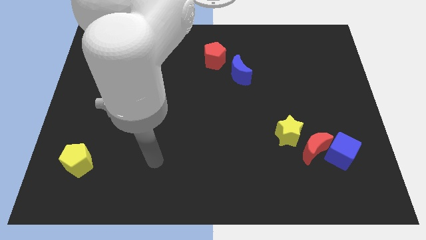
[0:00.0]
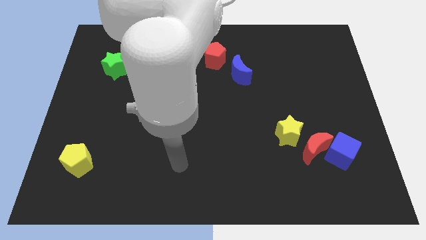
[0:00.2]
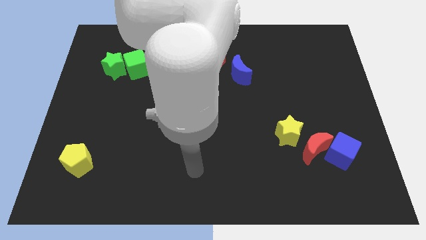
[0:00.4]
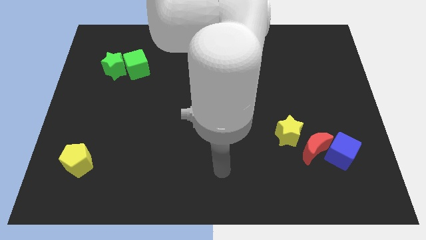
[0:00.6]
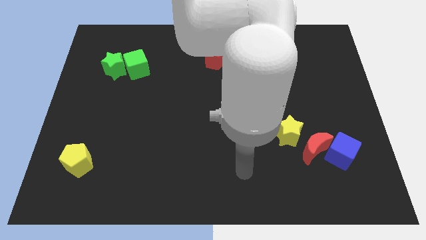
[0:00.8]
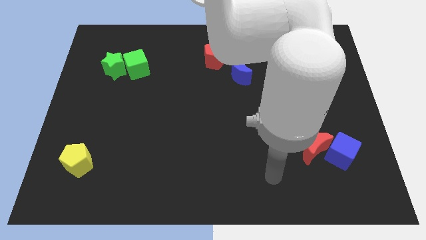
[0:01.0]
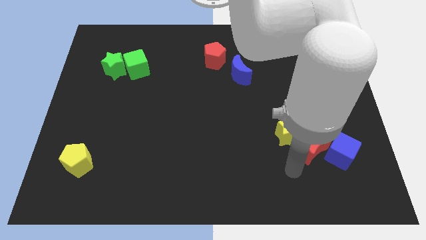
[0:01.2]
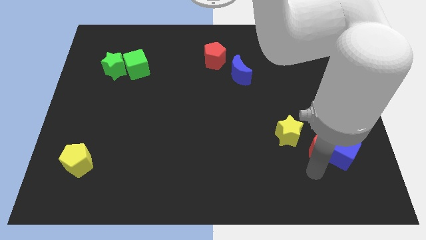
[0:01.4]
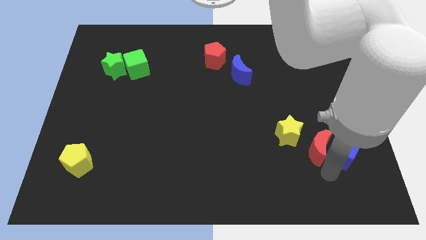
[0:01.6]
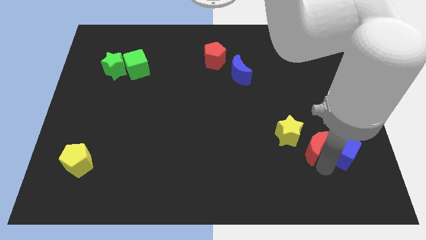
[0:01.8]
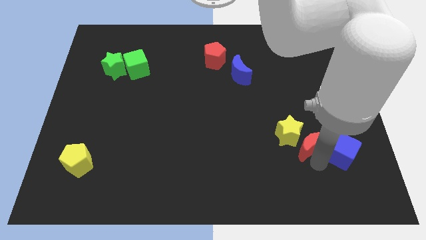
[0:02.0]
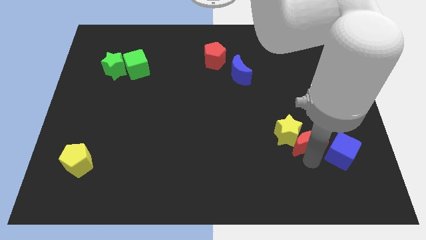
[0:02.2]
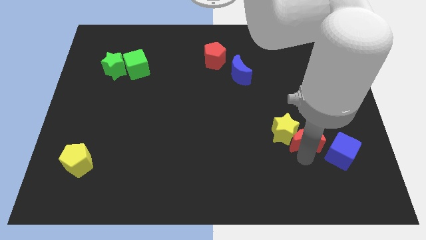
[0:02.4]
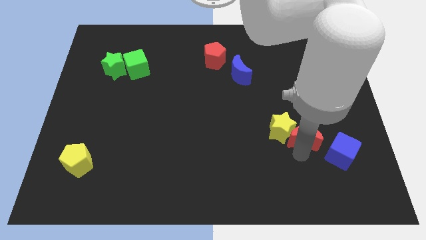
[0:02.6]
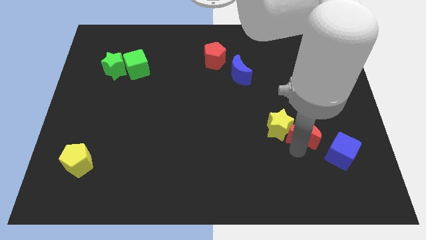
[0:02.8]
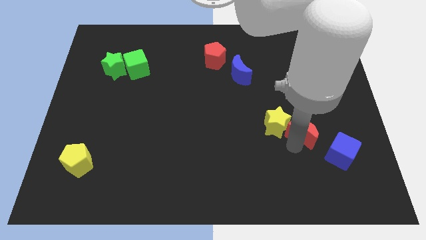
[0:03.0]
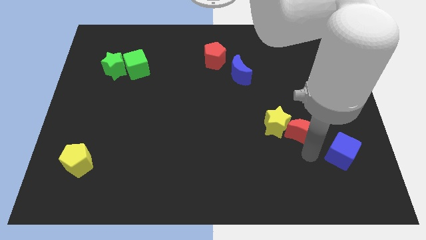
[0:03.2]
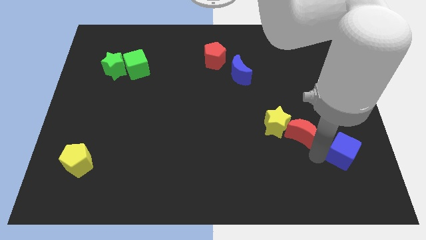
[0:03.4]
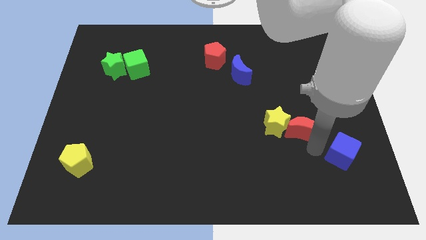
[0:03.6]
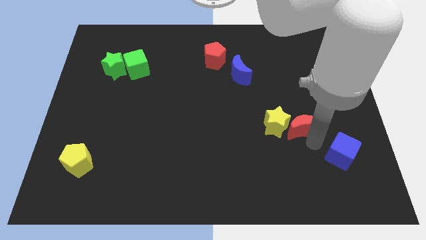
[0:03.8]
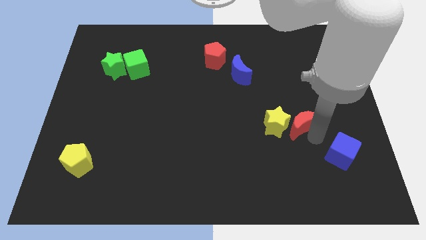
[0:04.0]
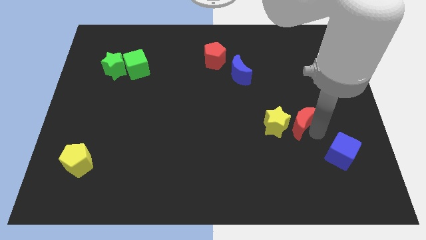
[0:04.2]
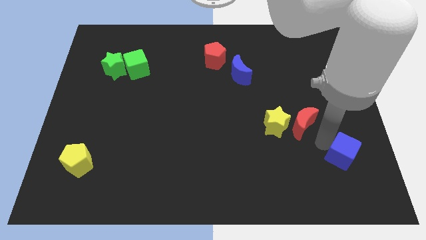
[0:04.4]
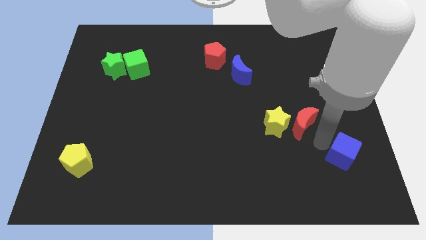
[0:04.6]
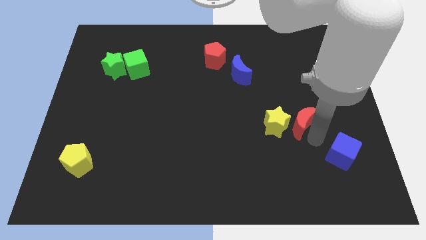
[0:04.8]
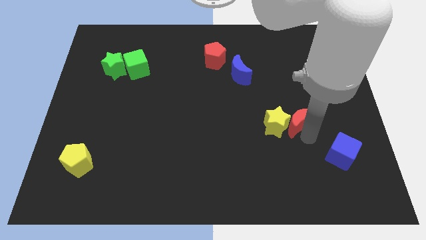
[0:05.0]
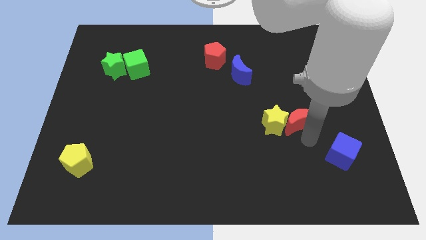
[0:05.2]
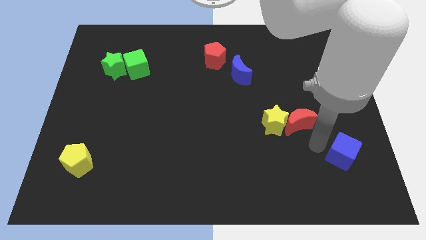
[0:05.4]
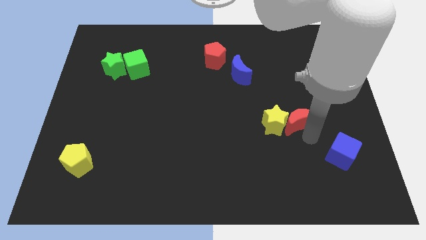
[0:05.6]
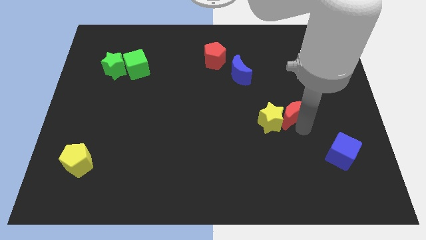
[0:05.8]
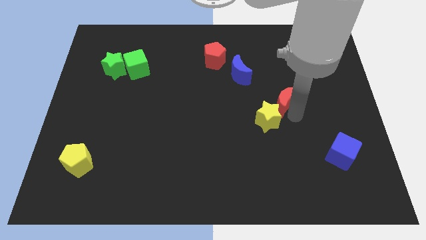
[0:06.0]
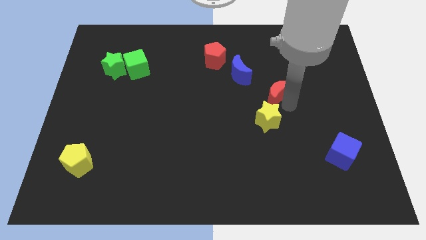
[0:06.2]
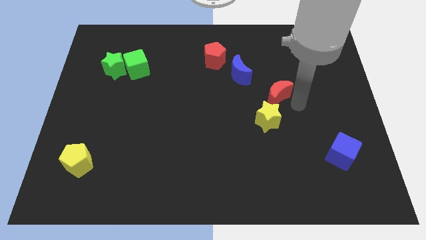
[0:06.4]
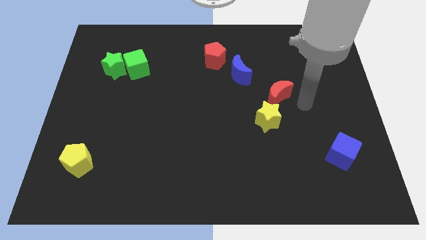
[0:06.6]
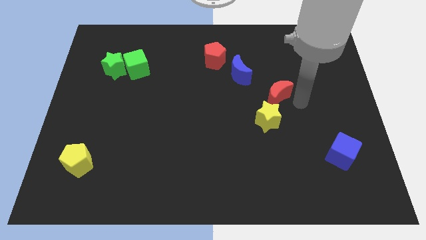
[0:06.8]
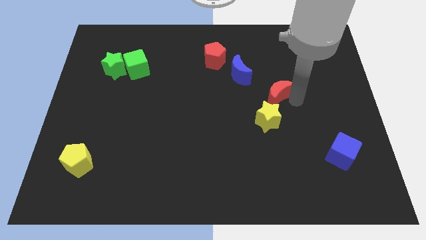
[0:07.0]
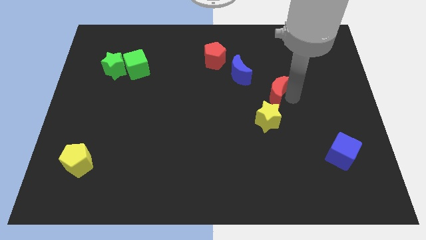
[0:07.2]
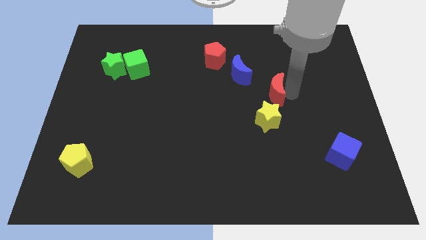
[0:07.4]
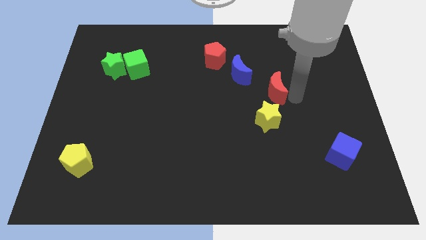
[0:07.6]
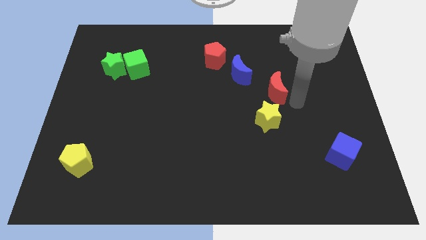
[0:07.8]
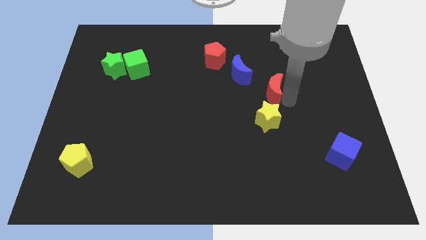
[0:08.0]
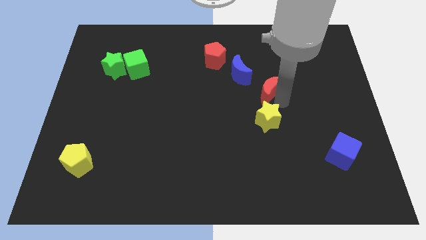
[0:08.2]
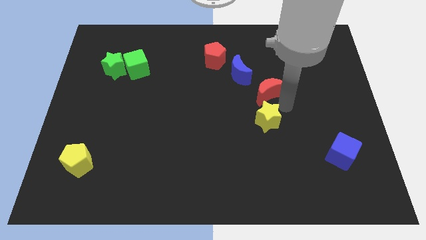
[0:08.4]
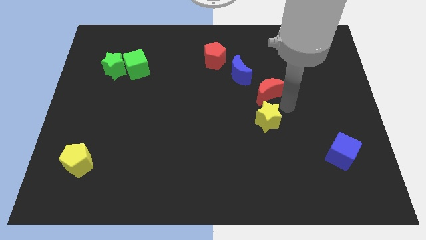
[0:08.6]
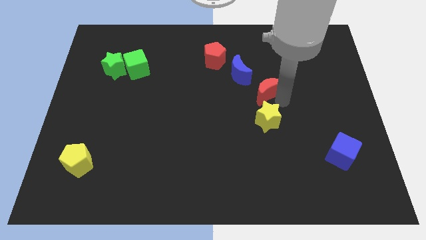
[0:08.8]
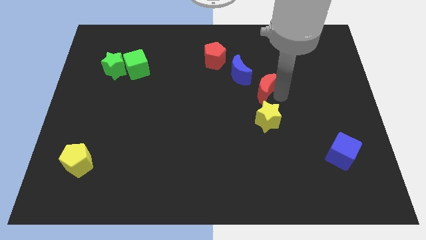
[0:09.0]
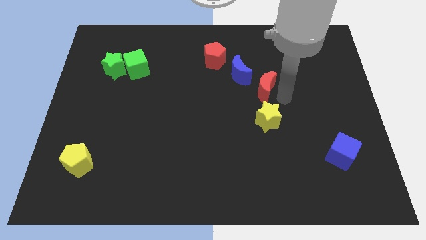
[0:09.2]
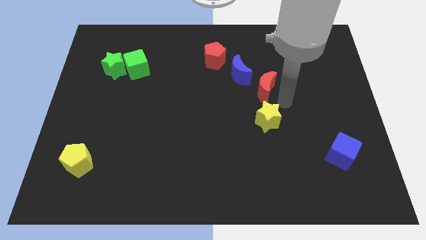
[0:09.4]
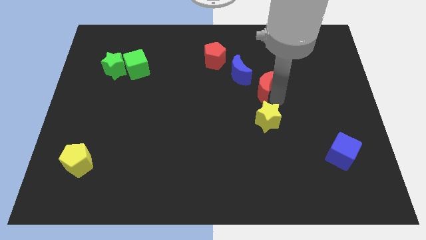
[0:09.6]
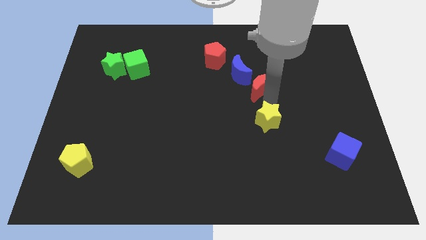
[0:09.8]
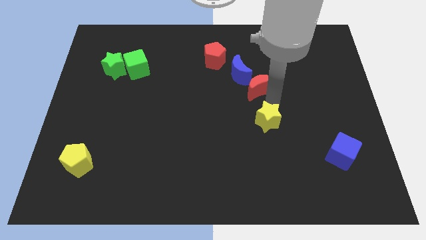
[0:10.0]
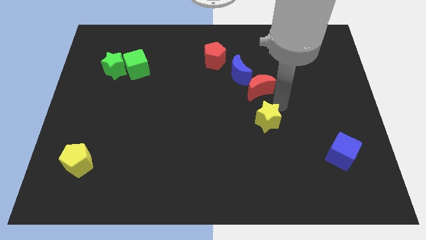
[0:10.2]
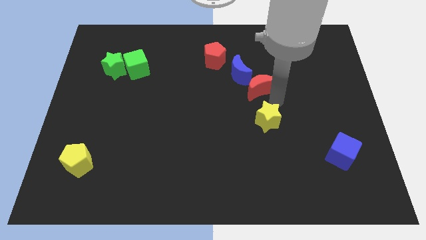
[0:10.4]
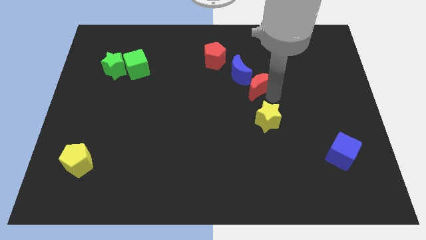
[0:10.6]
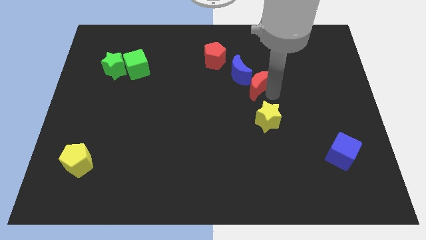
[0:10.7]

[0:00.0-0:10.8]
slide the red moon next to the blue moon

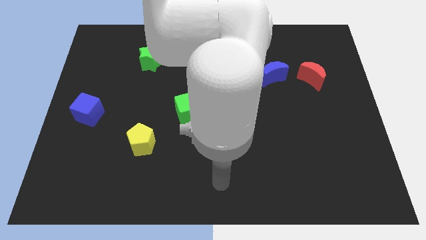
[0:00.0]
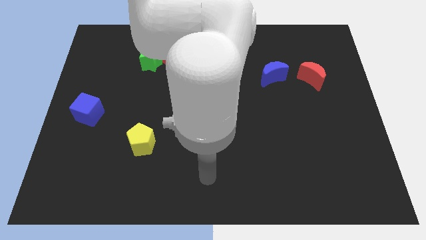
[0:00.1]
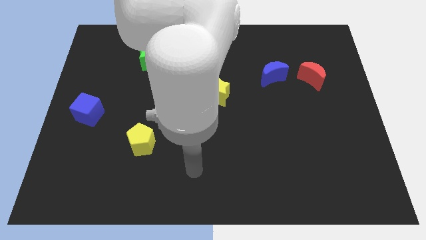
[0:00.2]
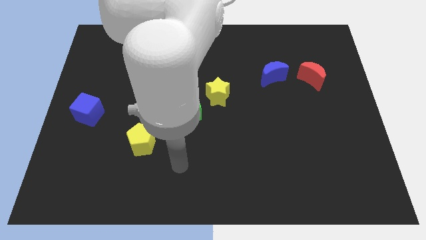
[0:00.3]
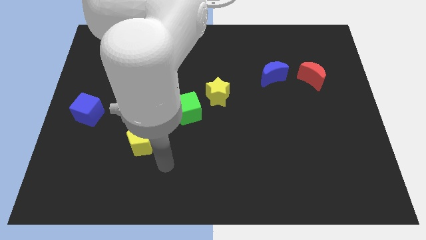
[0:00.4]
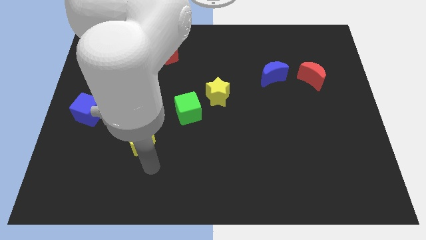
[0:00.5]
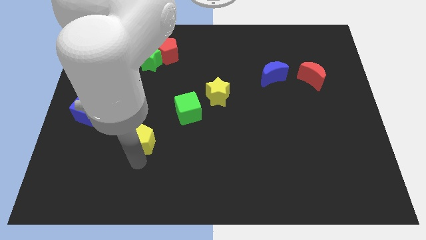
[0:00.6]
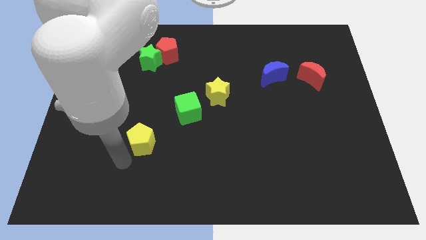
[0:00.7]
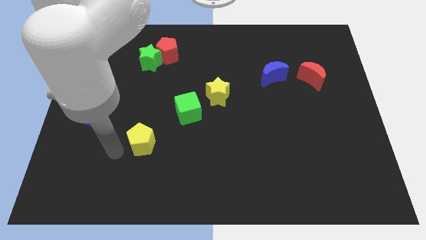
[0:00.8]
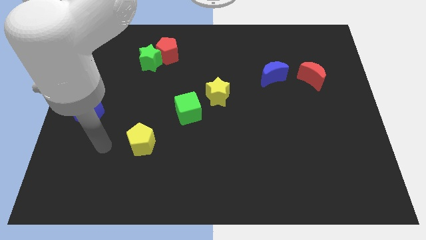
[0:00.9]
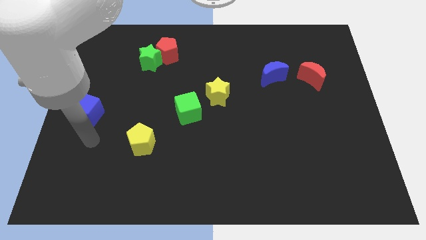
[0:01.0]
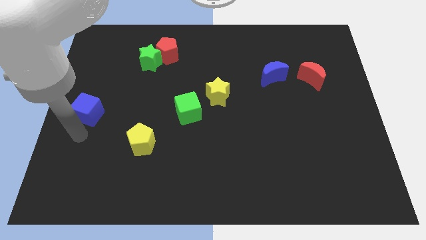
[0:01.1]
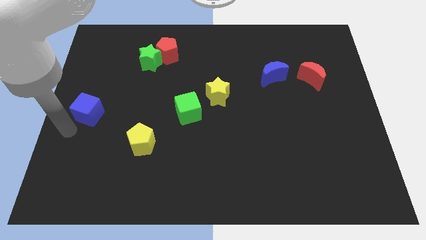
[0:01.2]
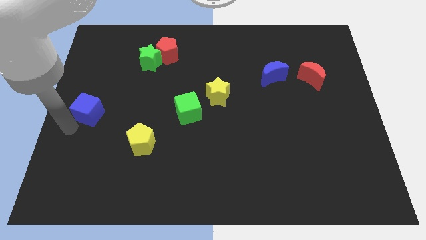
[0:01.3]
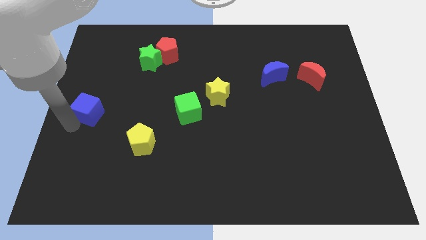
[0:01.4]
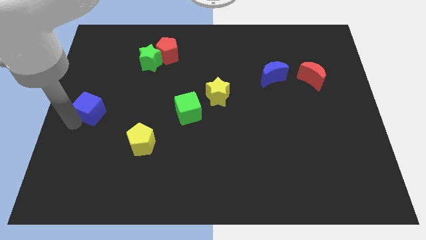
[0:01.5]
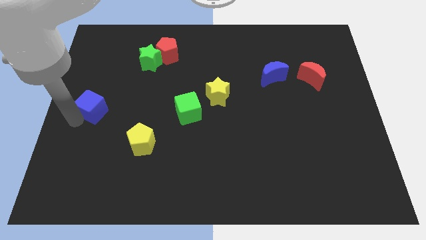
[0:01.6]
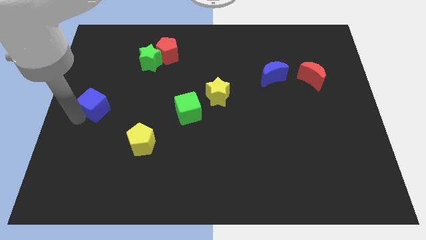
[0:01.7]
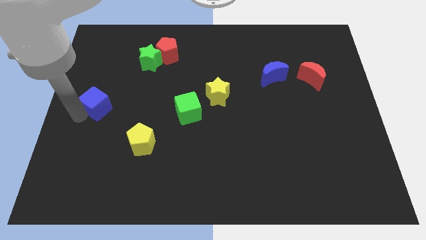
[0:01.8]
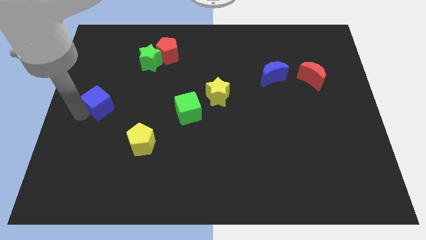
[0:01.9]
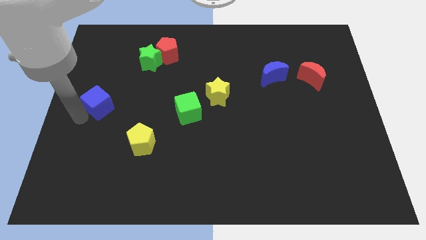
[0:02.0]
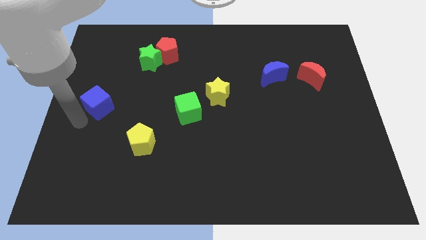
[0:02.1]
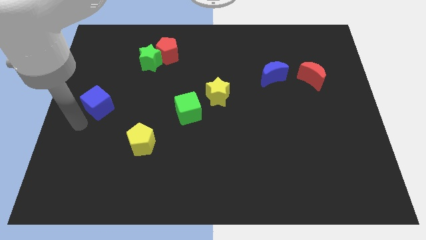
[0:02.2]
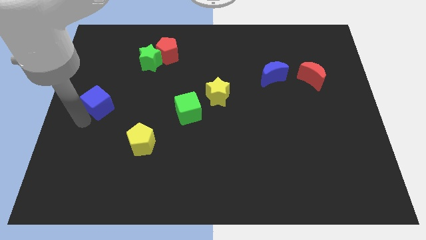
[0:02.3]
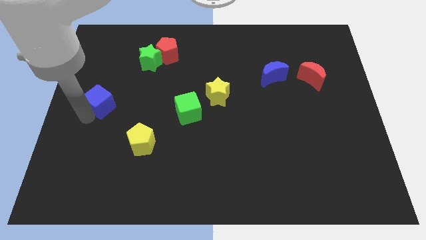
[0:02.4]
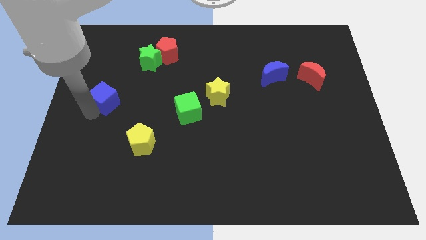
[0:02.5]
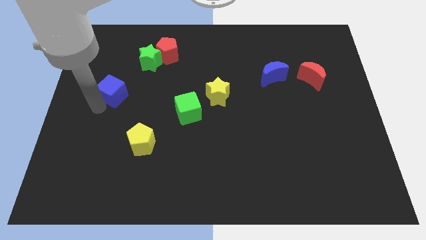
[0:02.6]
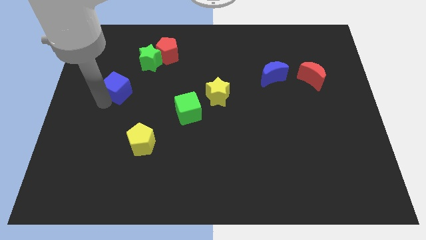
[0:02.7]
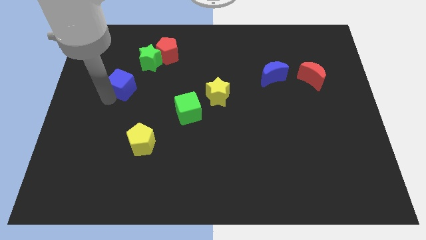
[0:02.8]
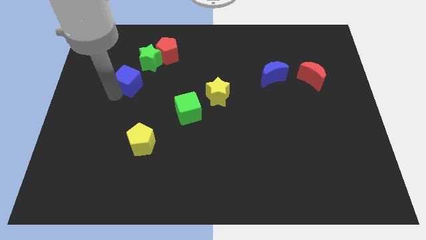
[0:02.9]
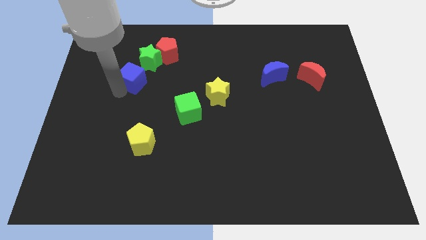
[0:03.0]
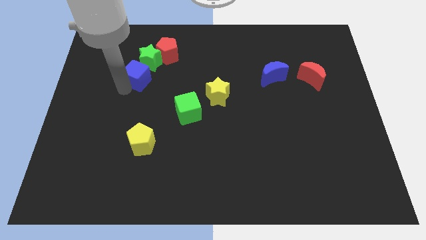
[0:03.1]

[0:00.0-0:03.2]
push the blue cube close to the green star
